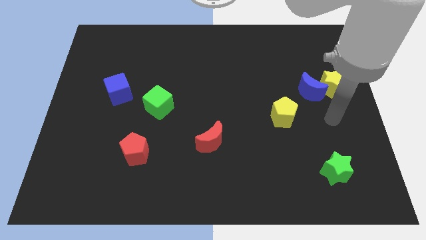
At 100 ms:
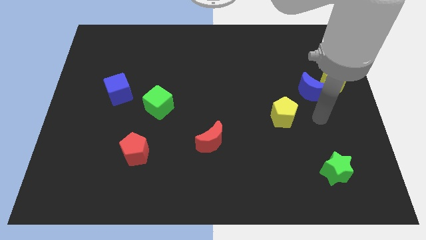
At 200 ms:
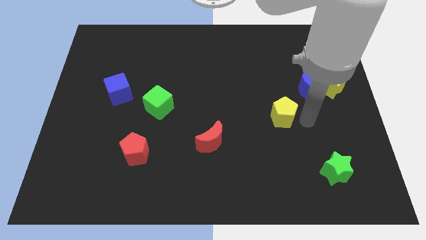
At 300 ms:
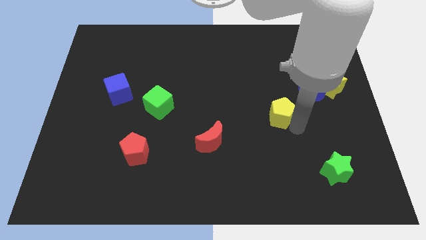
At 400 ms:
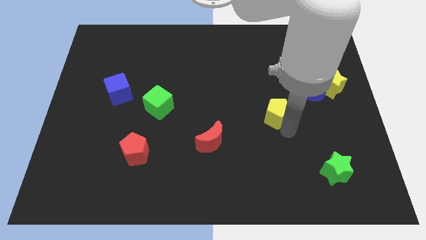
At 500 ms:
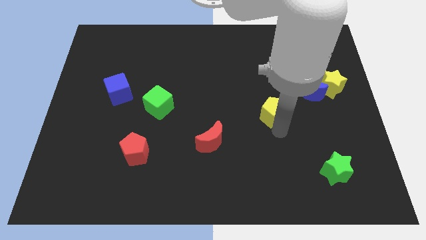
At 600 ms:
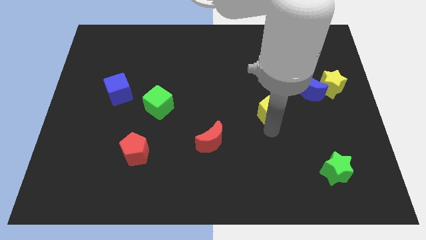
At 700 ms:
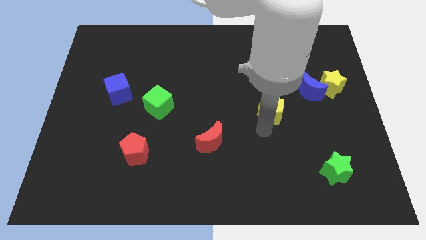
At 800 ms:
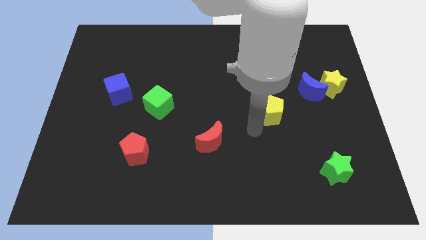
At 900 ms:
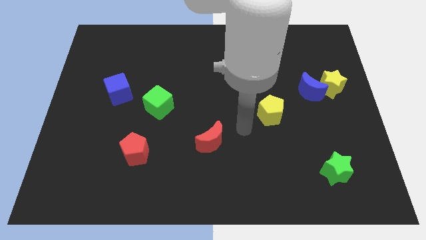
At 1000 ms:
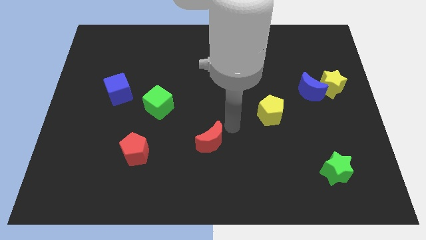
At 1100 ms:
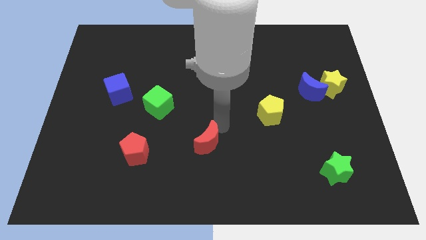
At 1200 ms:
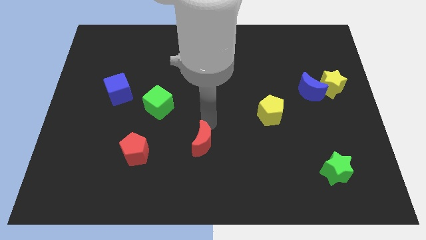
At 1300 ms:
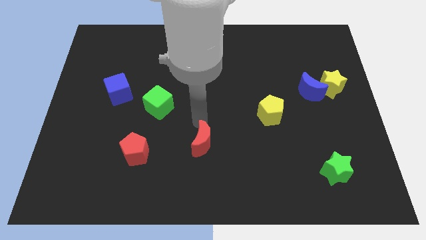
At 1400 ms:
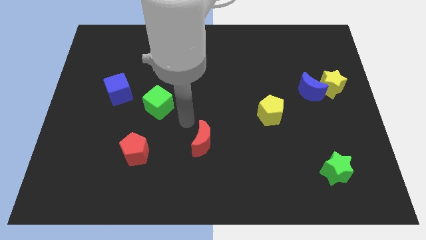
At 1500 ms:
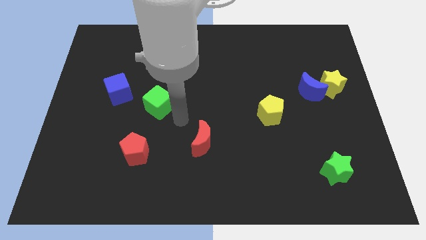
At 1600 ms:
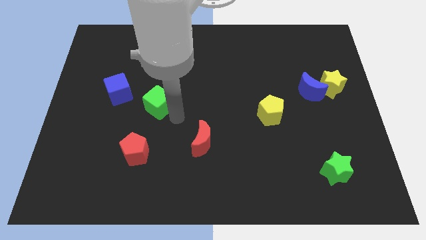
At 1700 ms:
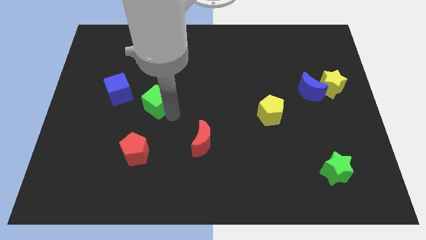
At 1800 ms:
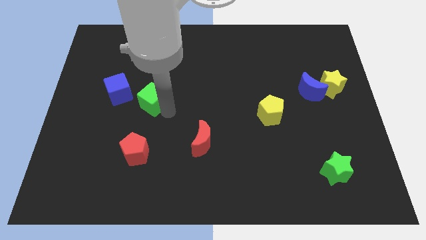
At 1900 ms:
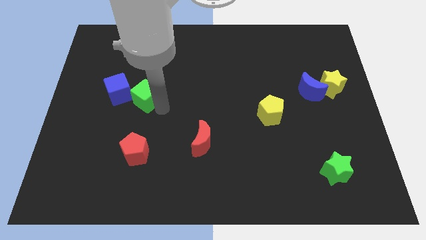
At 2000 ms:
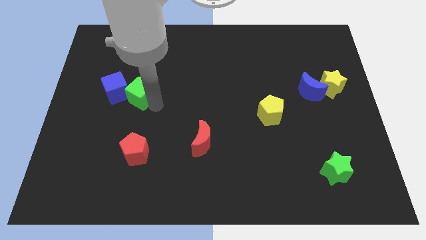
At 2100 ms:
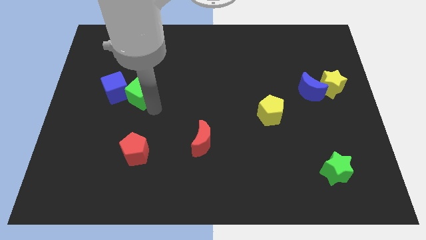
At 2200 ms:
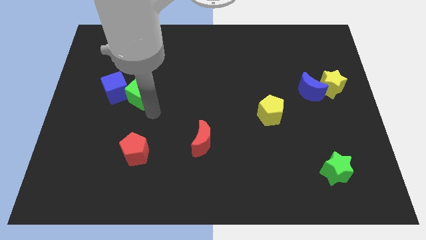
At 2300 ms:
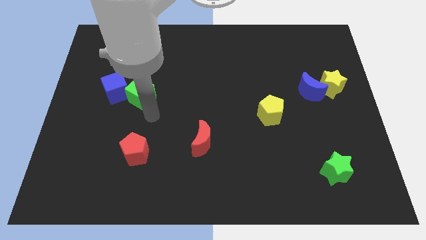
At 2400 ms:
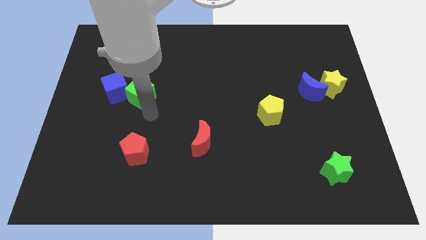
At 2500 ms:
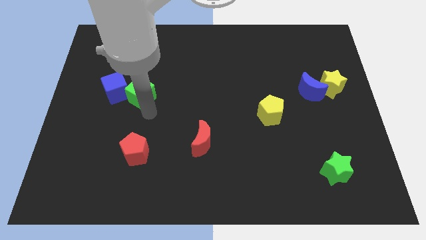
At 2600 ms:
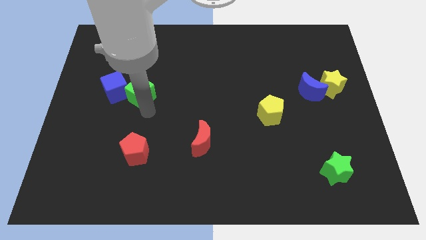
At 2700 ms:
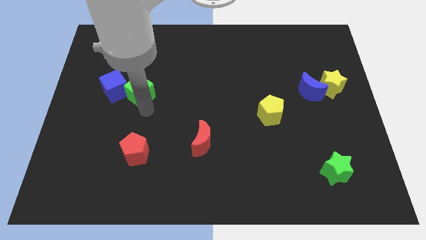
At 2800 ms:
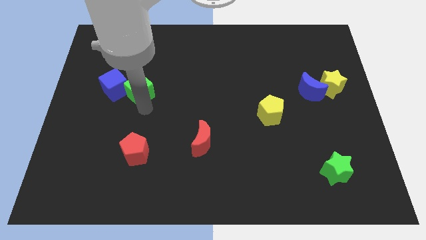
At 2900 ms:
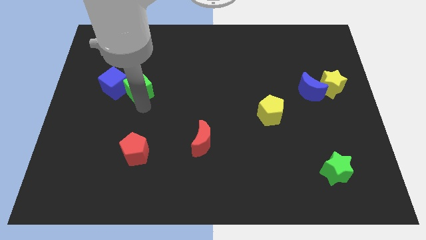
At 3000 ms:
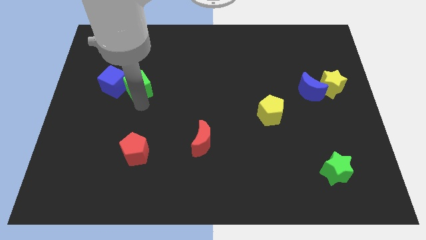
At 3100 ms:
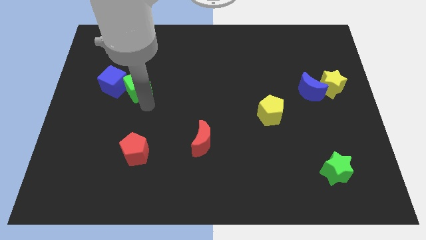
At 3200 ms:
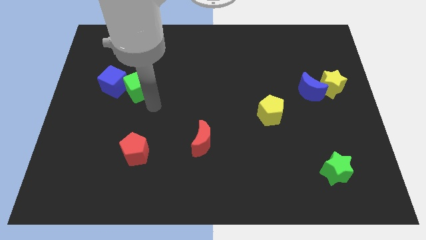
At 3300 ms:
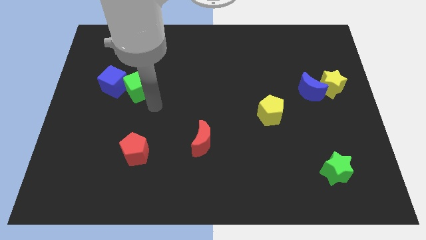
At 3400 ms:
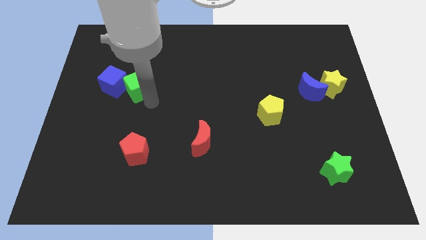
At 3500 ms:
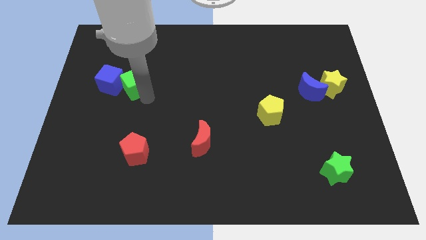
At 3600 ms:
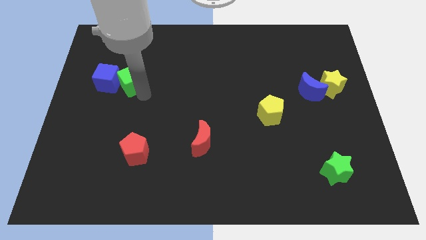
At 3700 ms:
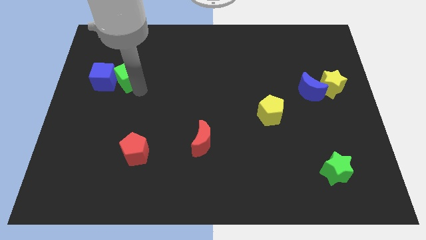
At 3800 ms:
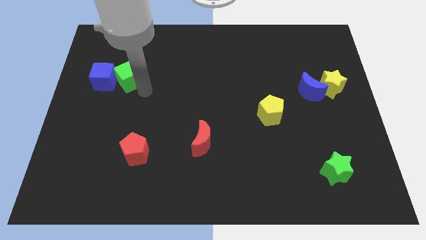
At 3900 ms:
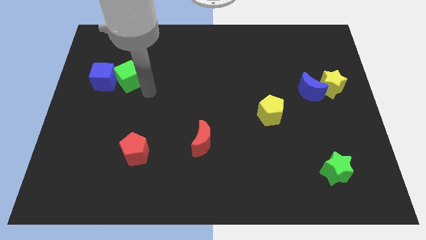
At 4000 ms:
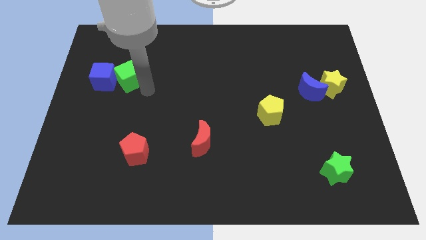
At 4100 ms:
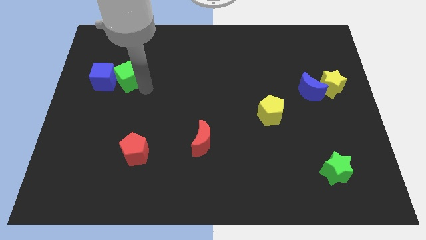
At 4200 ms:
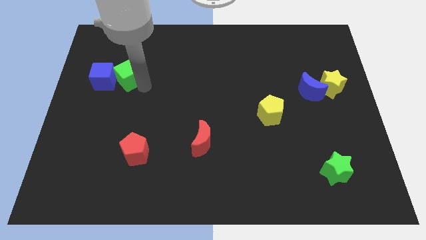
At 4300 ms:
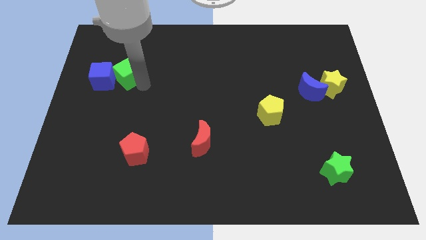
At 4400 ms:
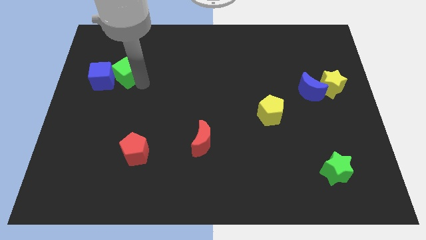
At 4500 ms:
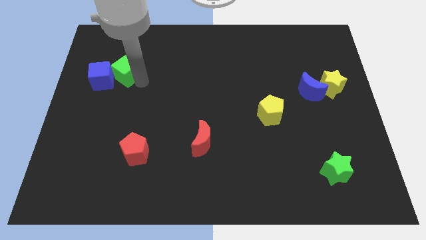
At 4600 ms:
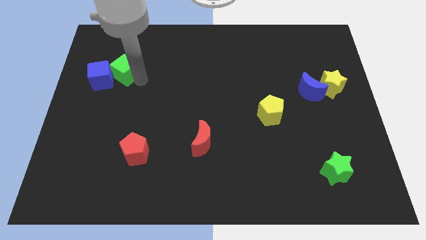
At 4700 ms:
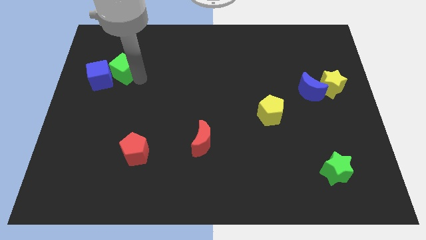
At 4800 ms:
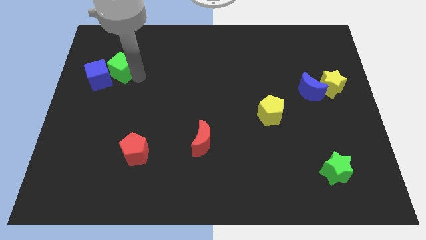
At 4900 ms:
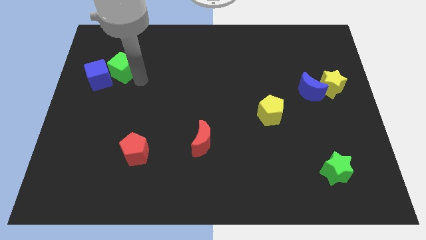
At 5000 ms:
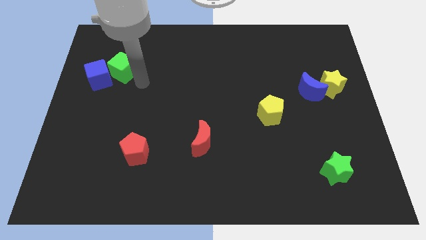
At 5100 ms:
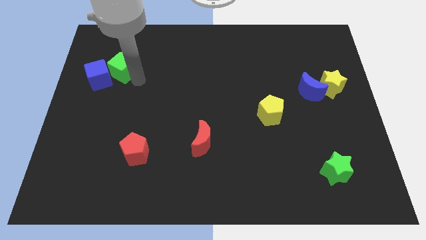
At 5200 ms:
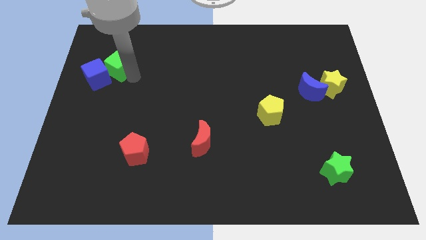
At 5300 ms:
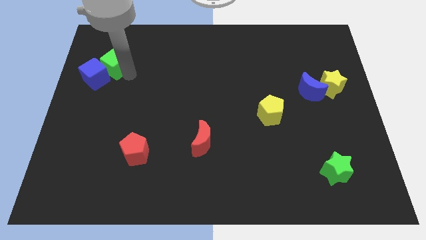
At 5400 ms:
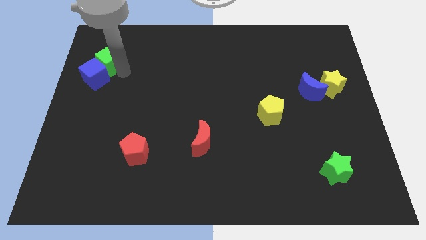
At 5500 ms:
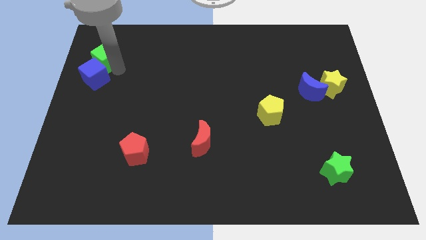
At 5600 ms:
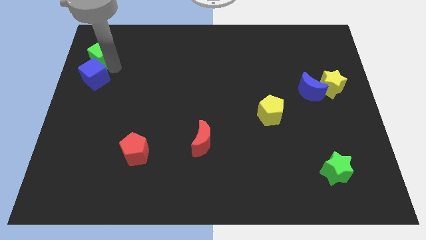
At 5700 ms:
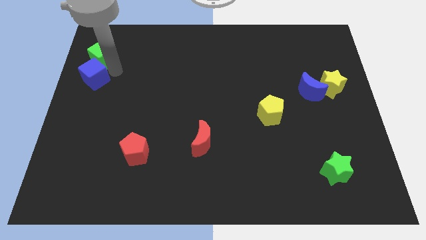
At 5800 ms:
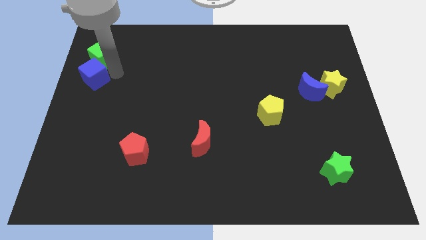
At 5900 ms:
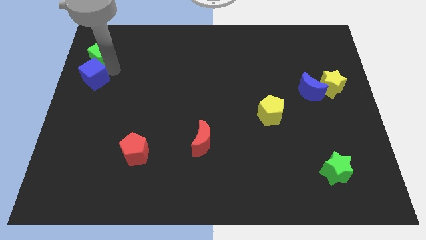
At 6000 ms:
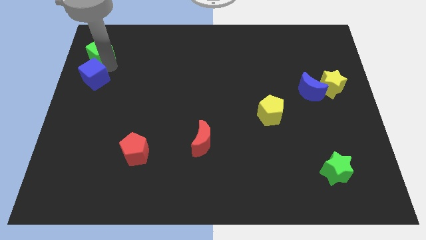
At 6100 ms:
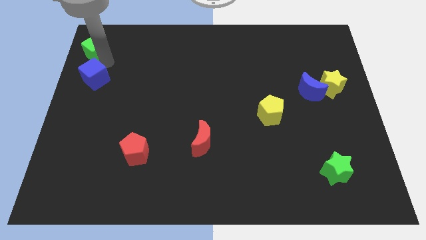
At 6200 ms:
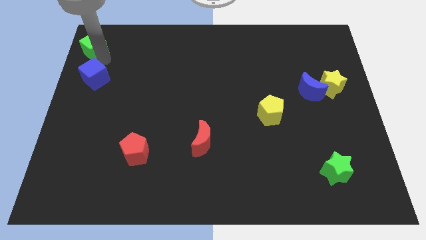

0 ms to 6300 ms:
slide the green cube to the upper left corner
